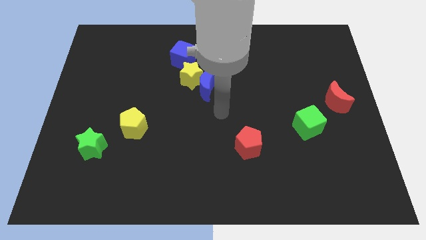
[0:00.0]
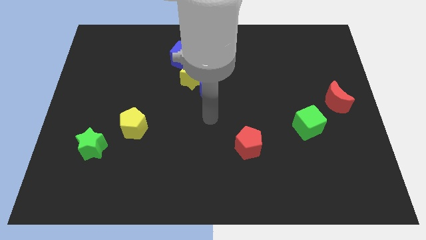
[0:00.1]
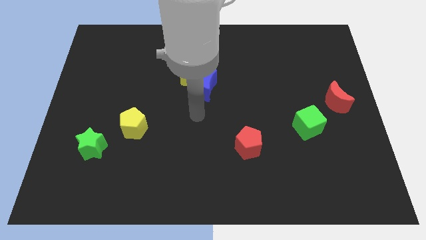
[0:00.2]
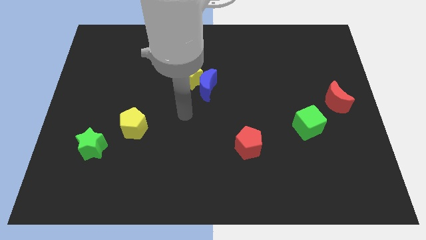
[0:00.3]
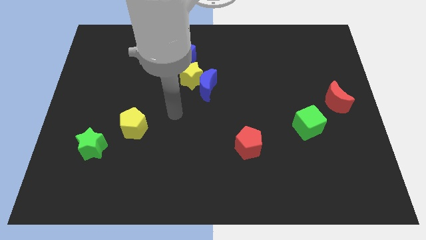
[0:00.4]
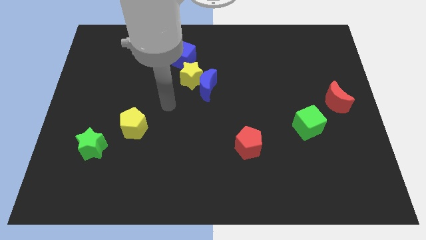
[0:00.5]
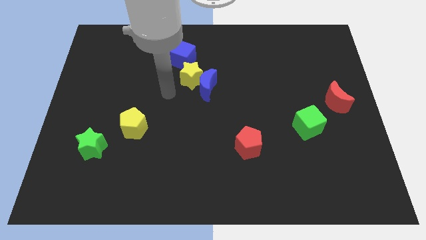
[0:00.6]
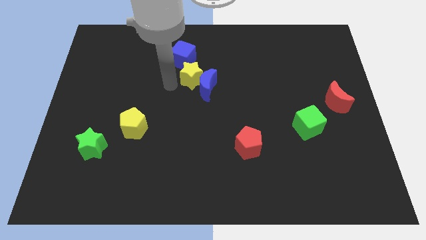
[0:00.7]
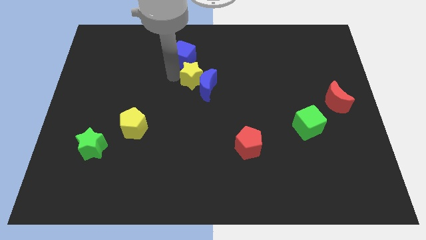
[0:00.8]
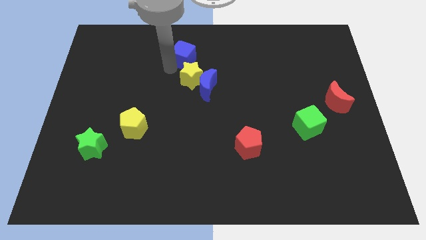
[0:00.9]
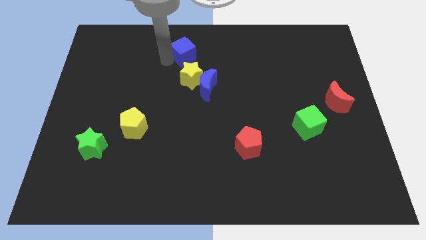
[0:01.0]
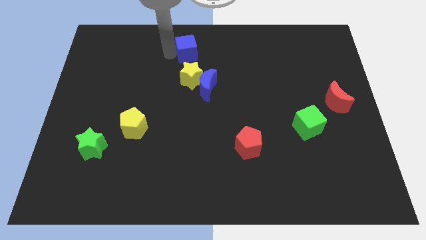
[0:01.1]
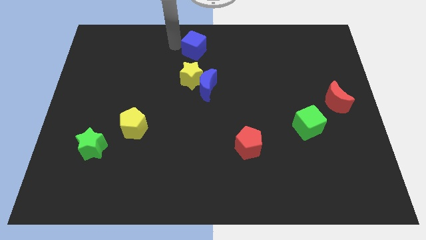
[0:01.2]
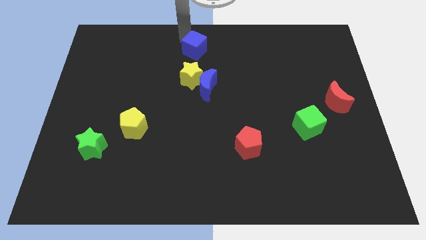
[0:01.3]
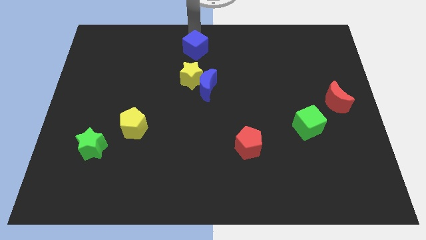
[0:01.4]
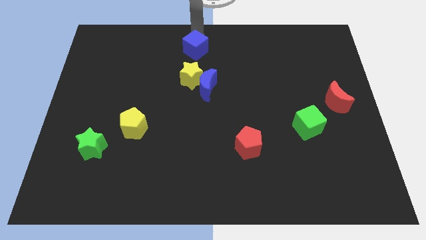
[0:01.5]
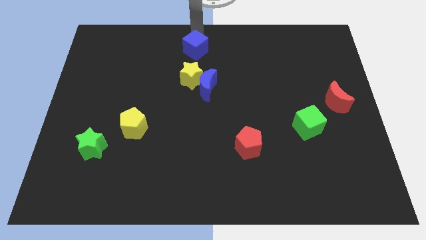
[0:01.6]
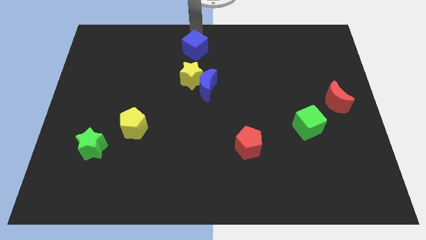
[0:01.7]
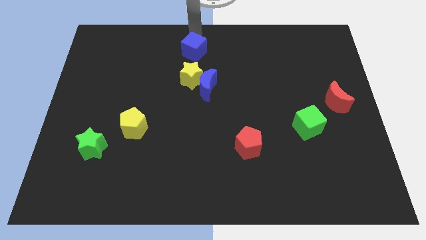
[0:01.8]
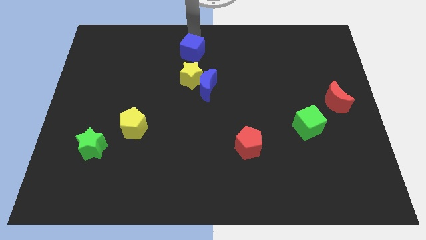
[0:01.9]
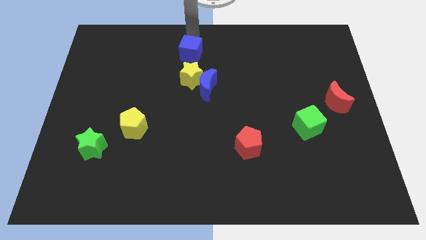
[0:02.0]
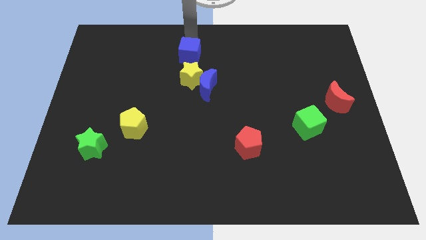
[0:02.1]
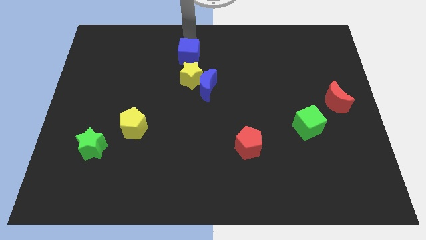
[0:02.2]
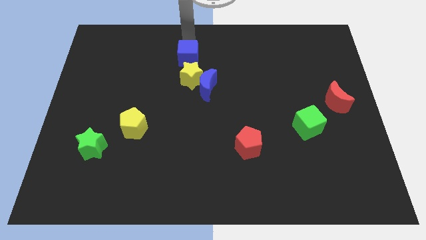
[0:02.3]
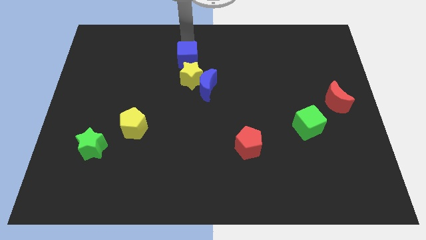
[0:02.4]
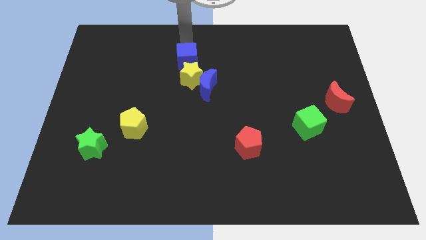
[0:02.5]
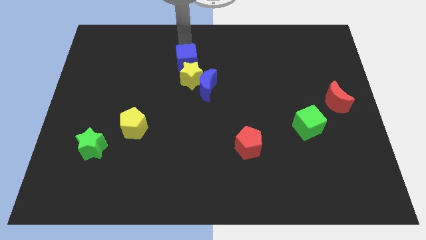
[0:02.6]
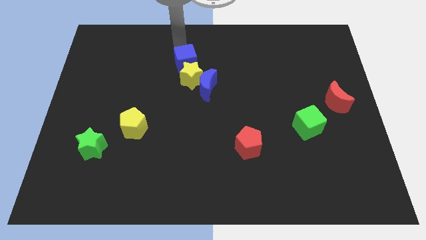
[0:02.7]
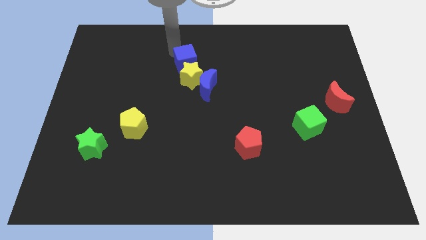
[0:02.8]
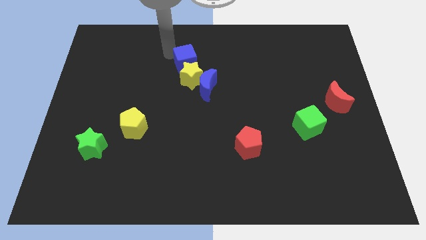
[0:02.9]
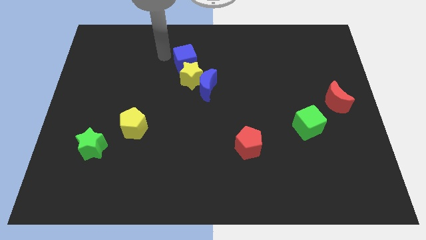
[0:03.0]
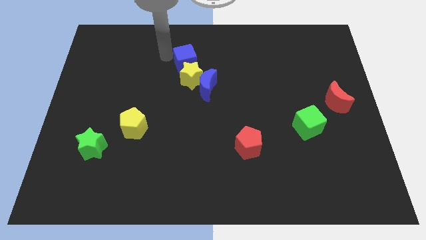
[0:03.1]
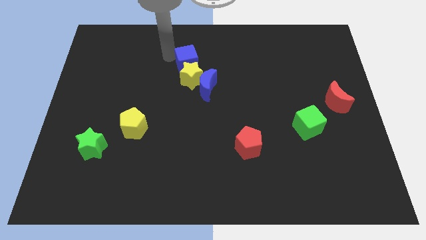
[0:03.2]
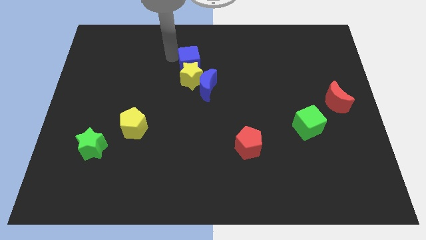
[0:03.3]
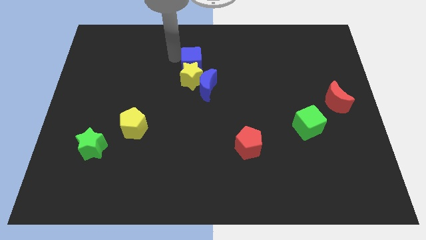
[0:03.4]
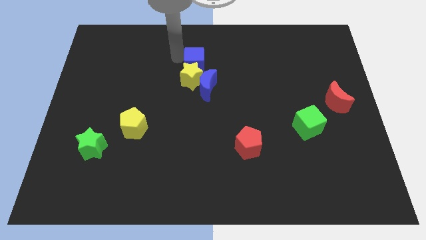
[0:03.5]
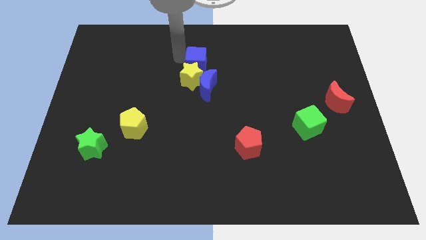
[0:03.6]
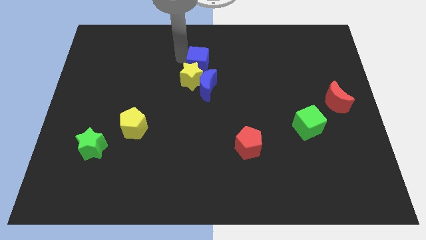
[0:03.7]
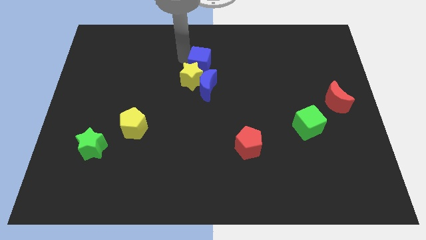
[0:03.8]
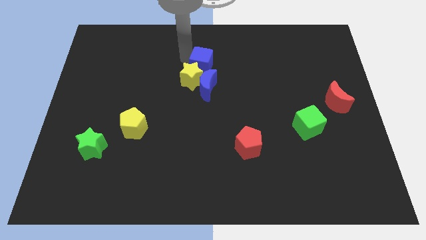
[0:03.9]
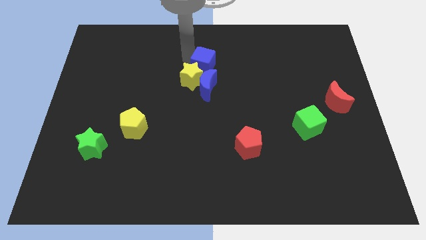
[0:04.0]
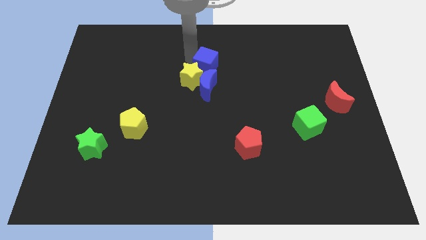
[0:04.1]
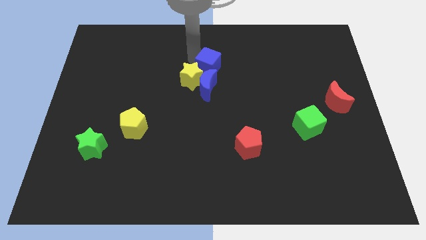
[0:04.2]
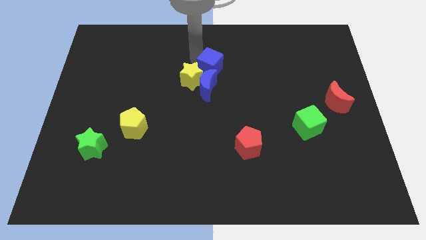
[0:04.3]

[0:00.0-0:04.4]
slightly move the blue cube down and then right

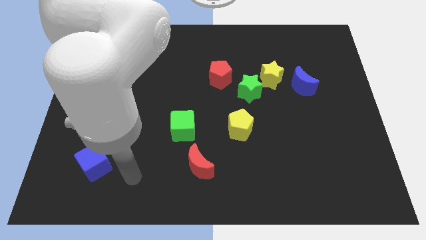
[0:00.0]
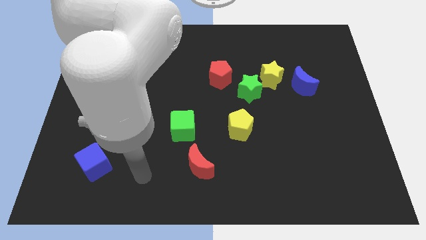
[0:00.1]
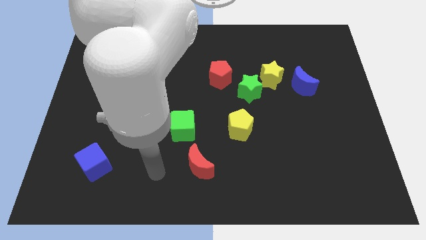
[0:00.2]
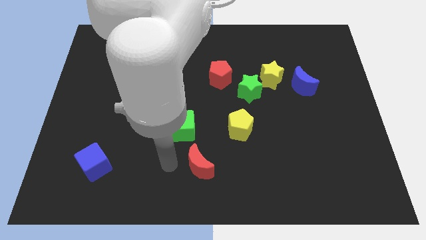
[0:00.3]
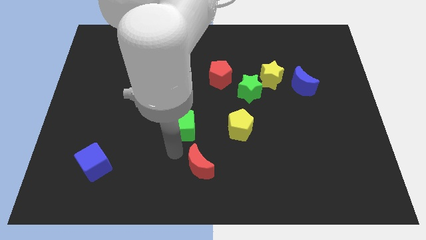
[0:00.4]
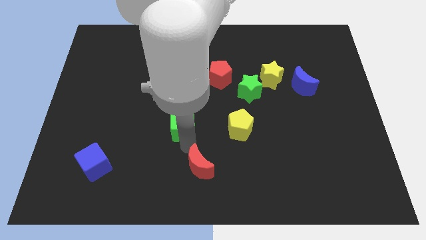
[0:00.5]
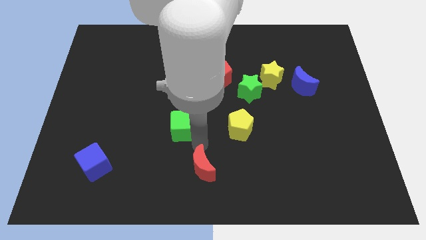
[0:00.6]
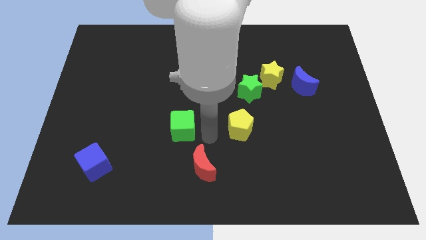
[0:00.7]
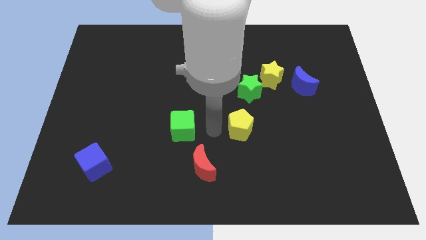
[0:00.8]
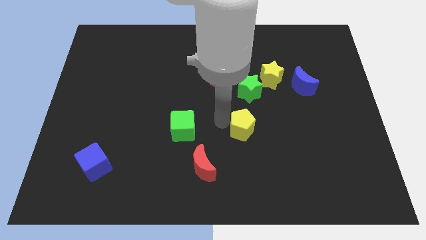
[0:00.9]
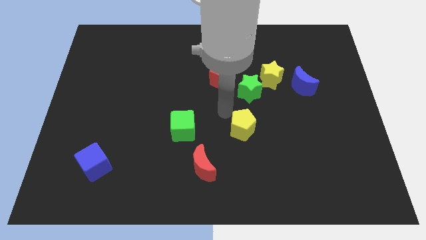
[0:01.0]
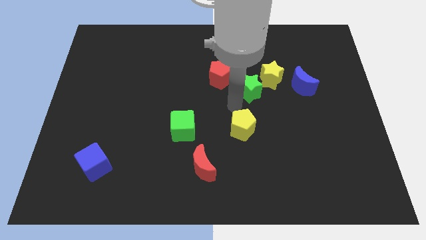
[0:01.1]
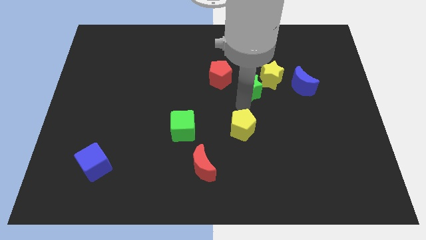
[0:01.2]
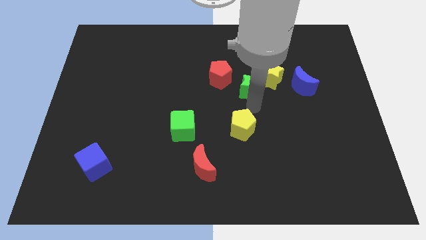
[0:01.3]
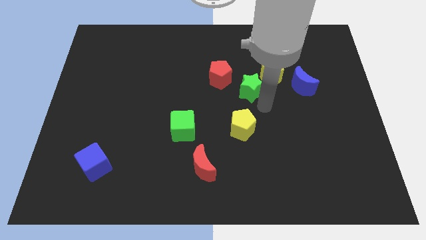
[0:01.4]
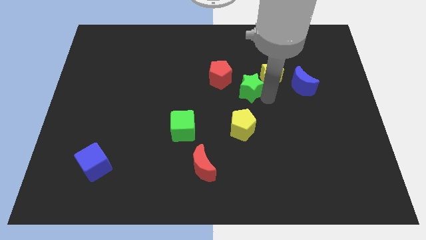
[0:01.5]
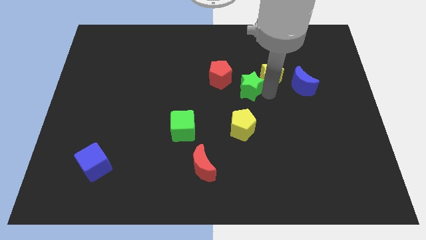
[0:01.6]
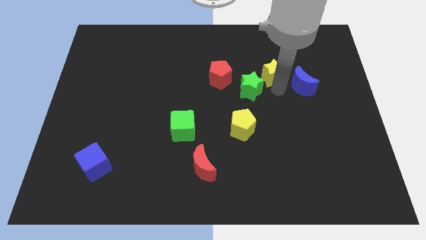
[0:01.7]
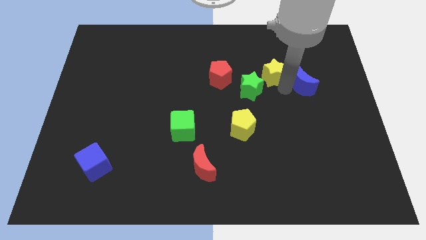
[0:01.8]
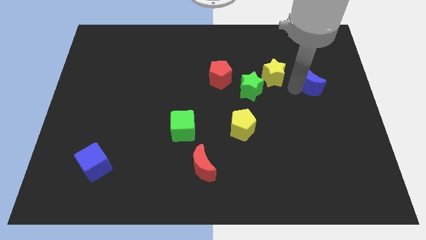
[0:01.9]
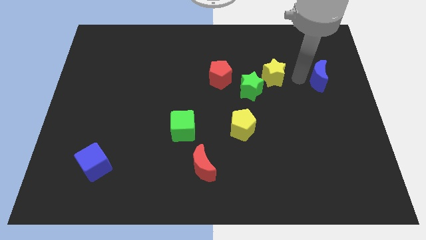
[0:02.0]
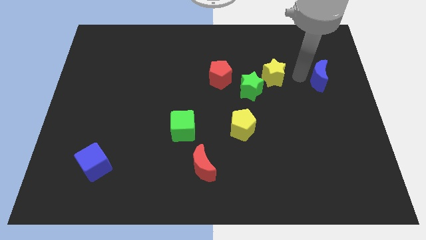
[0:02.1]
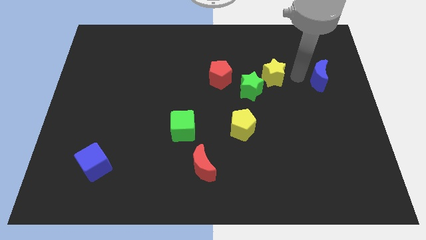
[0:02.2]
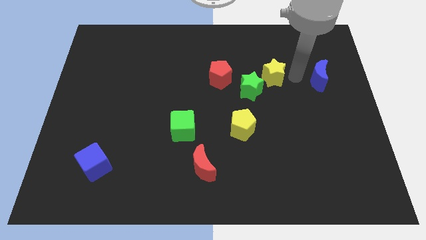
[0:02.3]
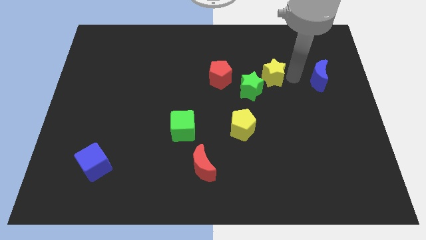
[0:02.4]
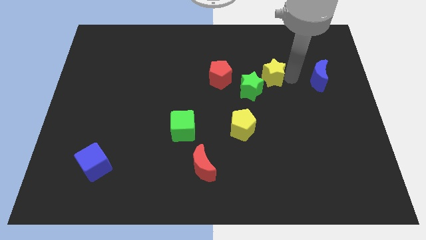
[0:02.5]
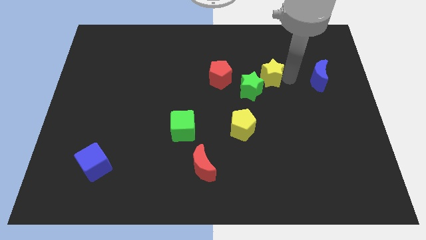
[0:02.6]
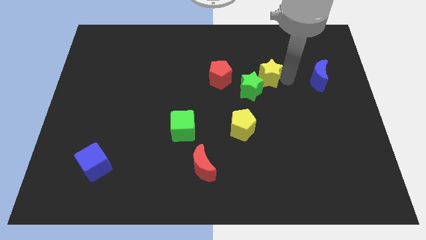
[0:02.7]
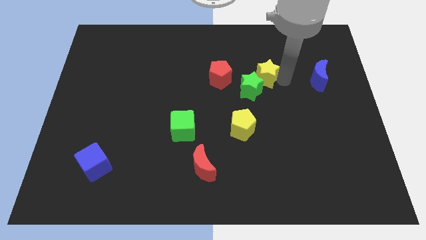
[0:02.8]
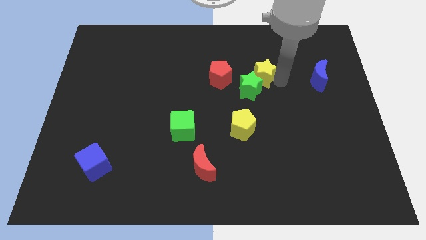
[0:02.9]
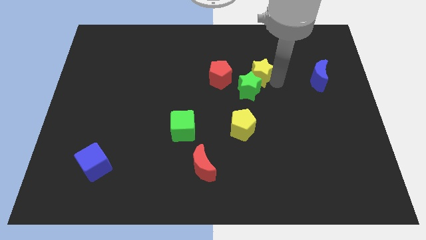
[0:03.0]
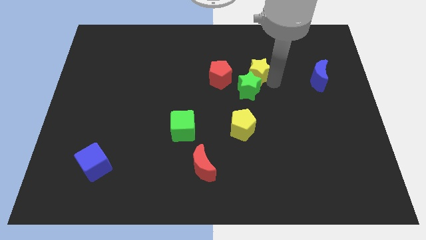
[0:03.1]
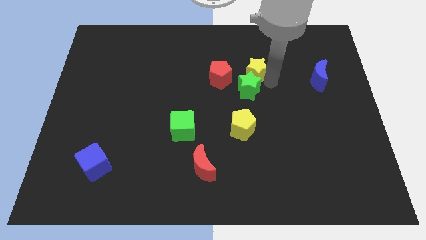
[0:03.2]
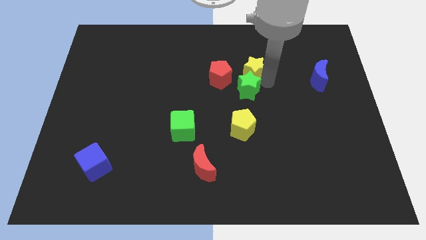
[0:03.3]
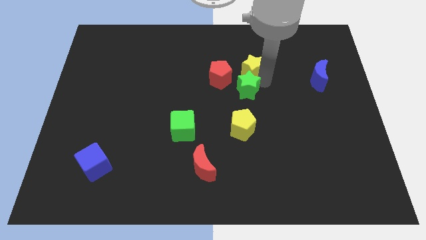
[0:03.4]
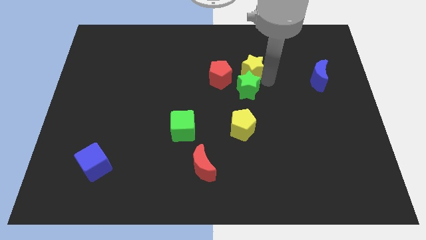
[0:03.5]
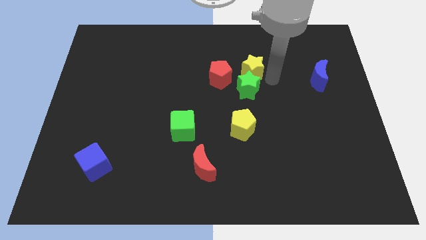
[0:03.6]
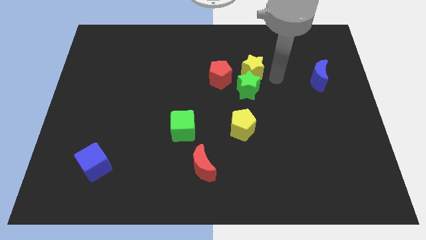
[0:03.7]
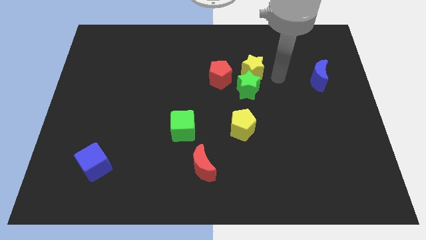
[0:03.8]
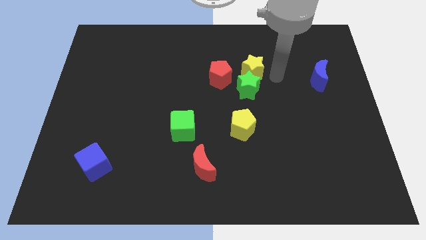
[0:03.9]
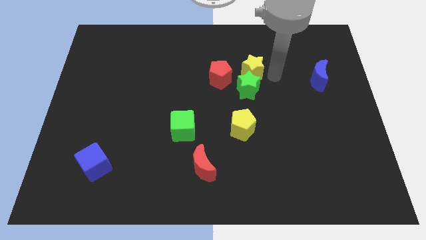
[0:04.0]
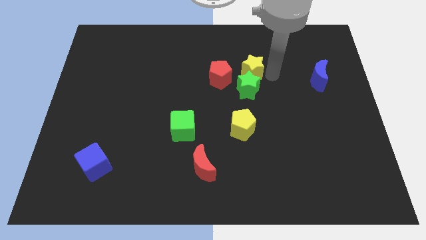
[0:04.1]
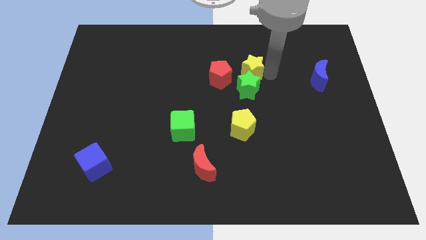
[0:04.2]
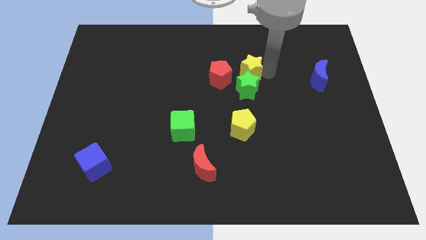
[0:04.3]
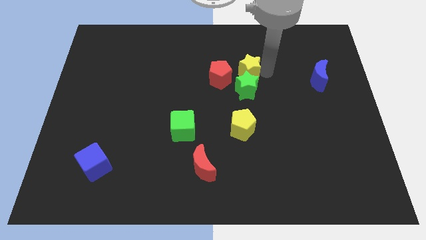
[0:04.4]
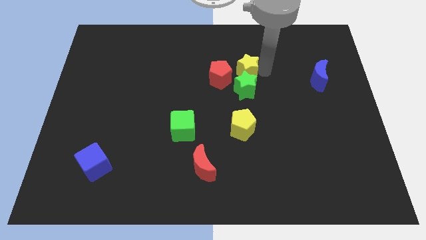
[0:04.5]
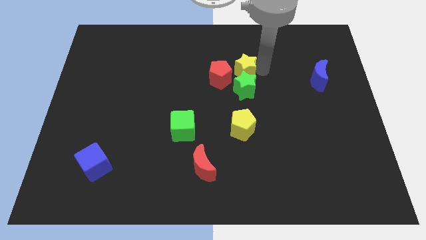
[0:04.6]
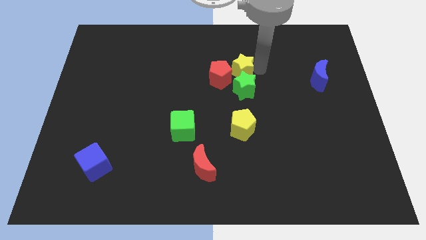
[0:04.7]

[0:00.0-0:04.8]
slightly move the yellow star left
